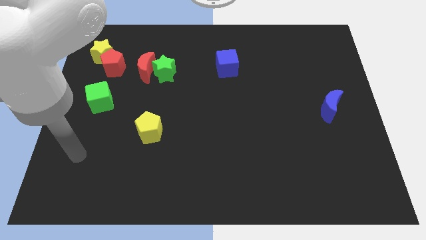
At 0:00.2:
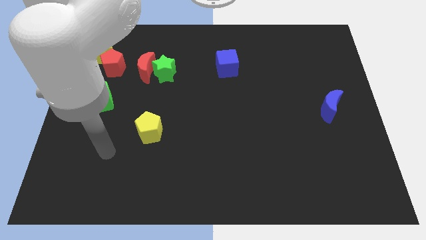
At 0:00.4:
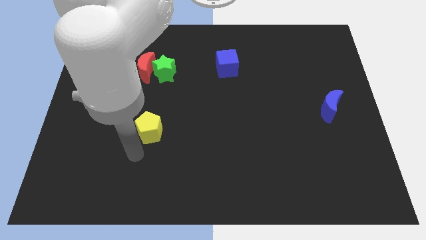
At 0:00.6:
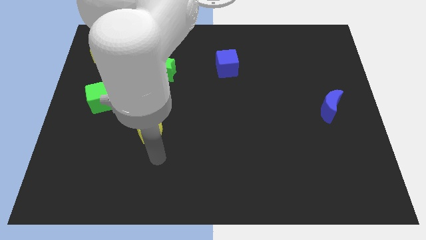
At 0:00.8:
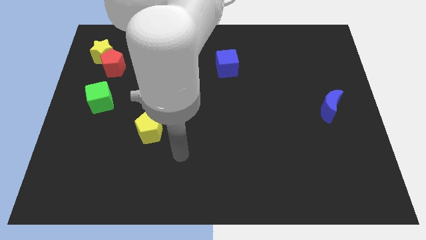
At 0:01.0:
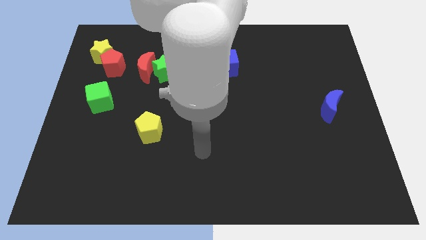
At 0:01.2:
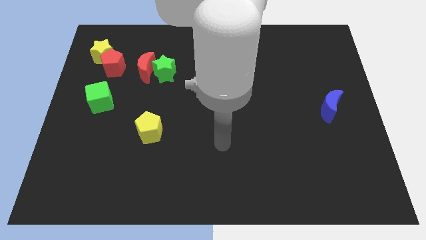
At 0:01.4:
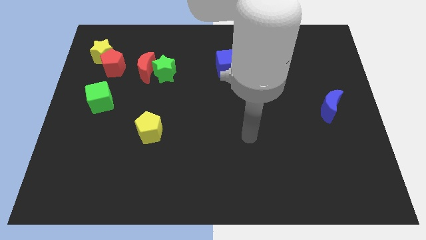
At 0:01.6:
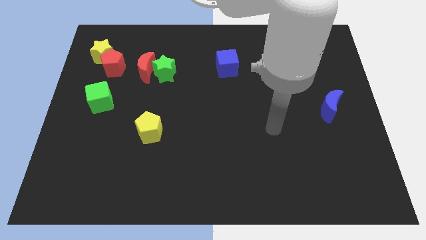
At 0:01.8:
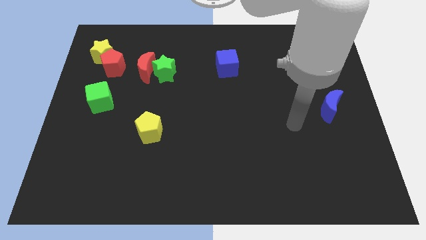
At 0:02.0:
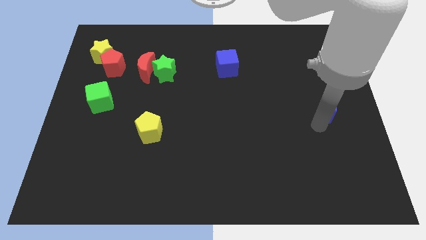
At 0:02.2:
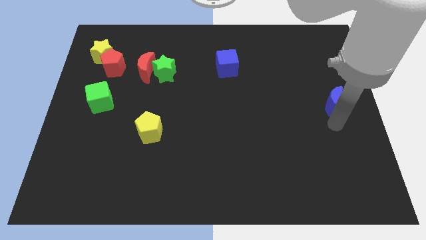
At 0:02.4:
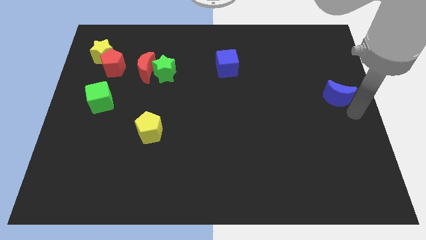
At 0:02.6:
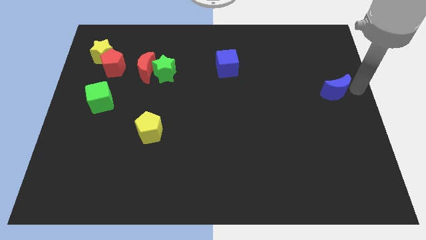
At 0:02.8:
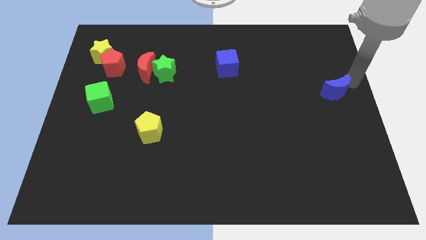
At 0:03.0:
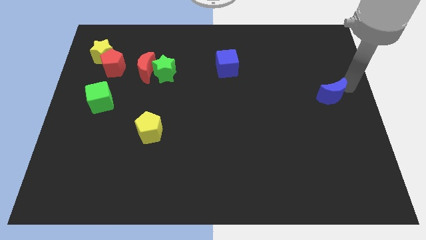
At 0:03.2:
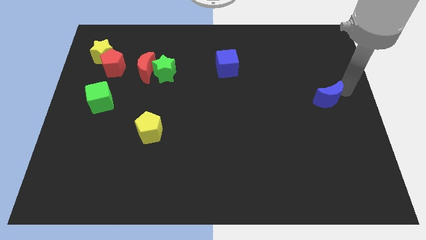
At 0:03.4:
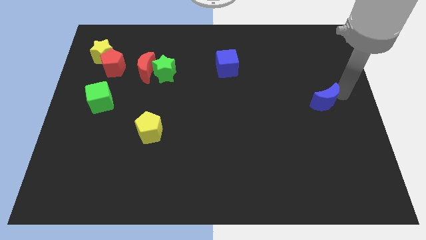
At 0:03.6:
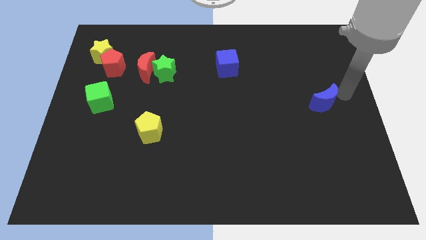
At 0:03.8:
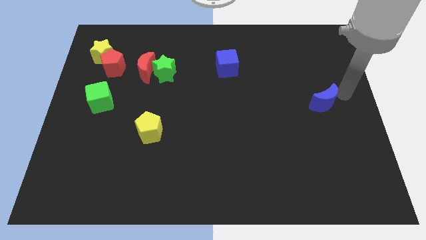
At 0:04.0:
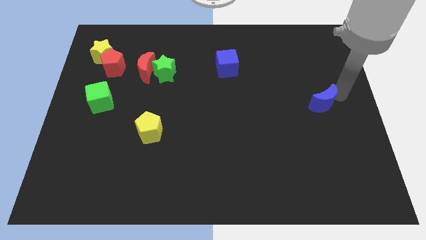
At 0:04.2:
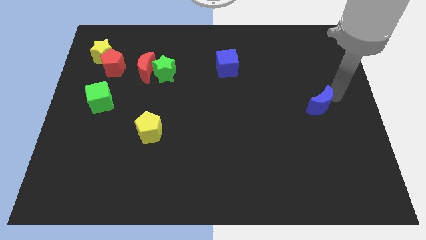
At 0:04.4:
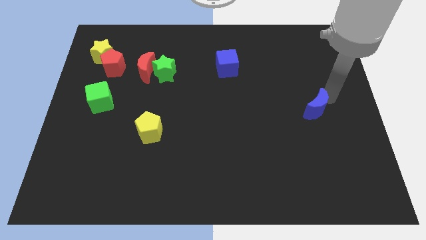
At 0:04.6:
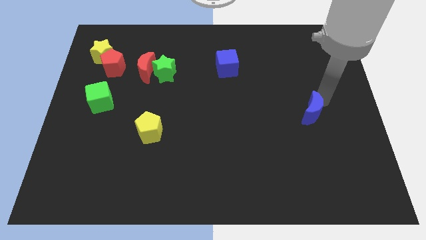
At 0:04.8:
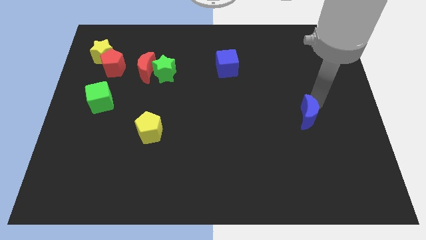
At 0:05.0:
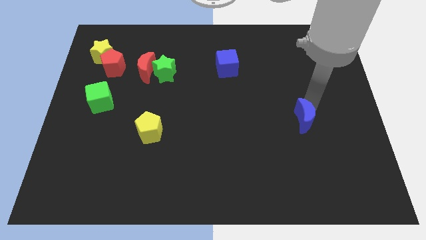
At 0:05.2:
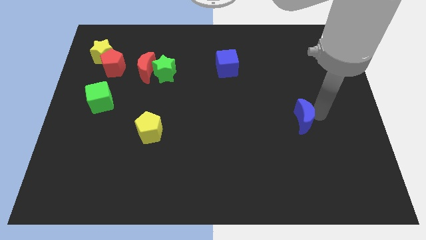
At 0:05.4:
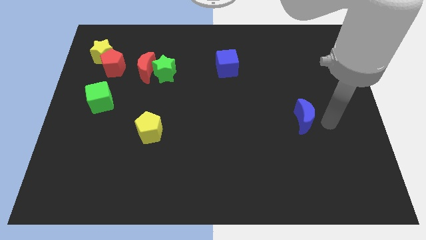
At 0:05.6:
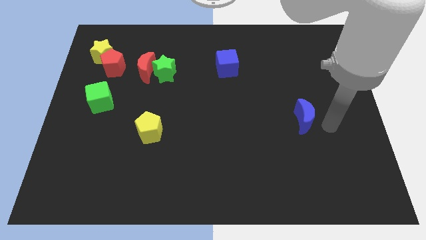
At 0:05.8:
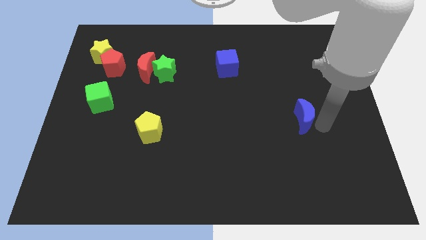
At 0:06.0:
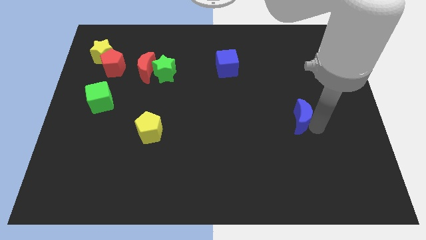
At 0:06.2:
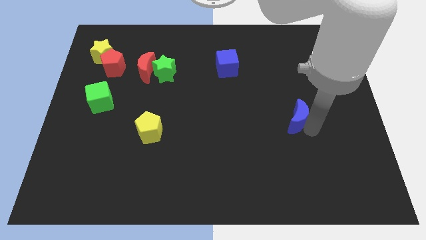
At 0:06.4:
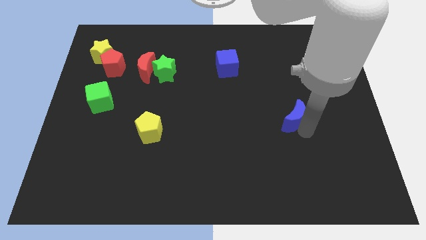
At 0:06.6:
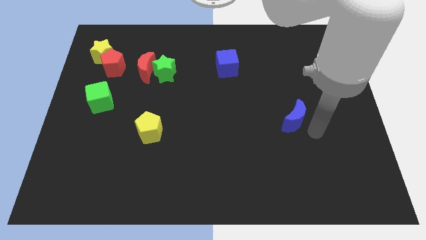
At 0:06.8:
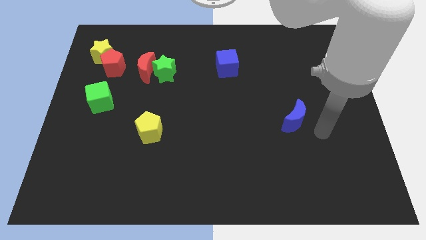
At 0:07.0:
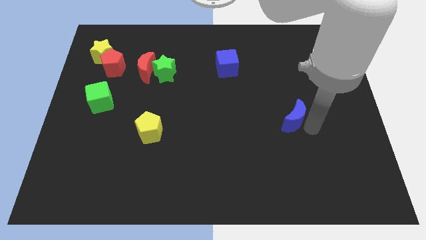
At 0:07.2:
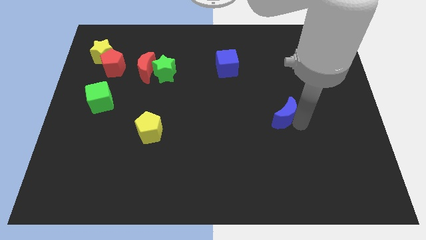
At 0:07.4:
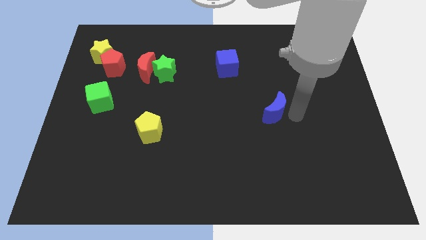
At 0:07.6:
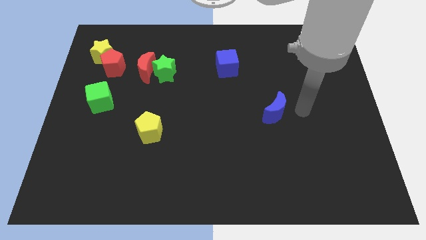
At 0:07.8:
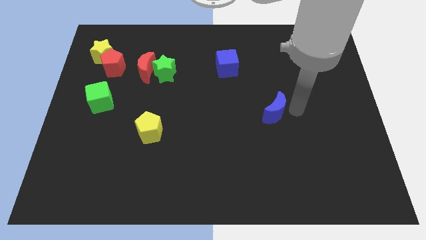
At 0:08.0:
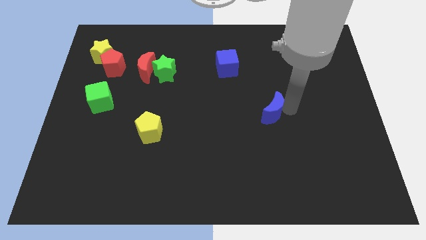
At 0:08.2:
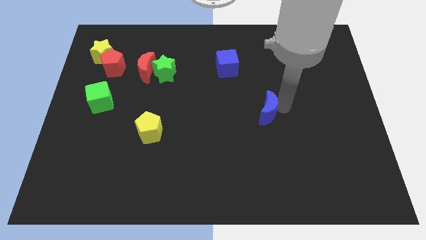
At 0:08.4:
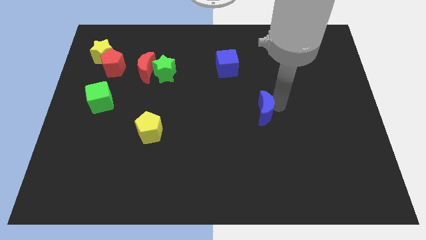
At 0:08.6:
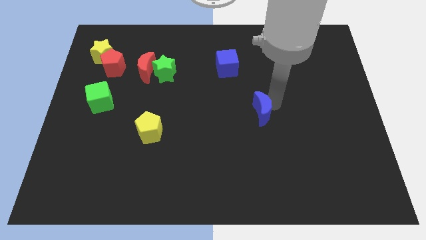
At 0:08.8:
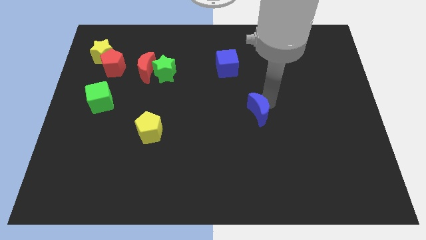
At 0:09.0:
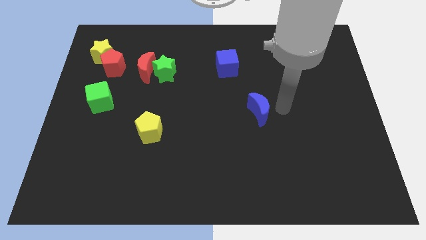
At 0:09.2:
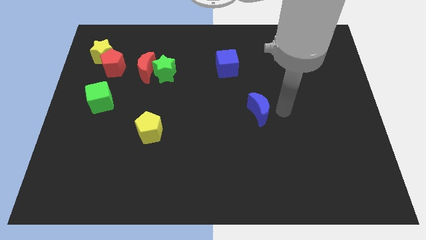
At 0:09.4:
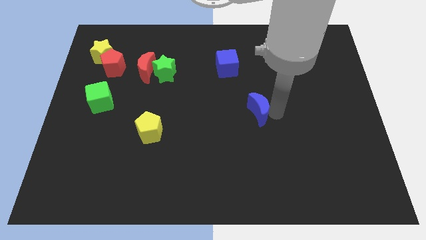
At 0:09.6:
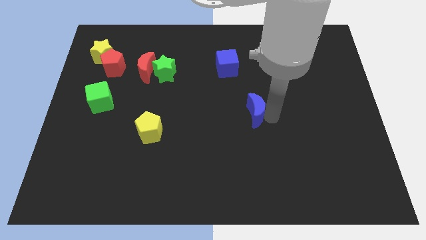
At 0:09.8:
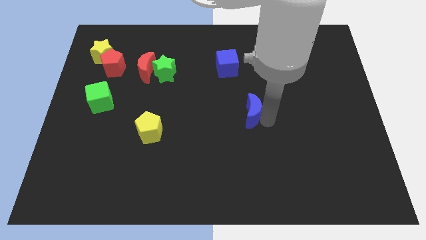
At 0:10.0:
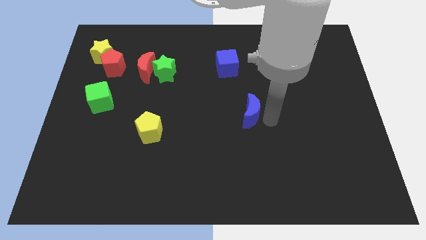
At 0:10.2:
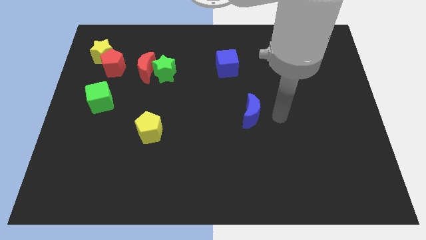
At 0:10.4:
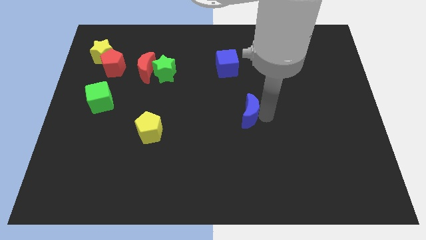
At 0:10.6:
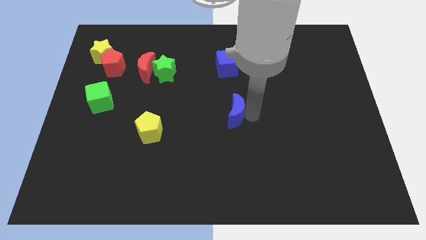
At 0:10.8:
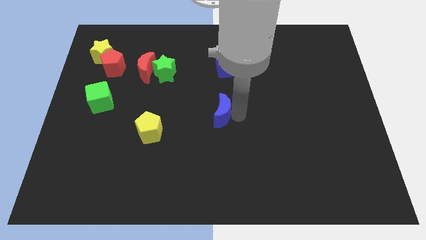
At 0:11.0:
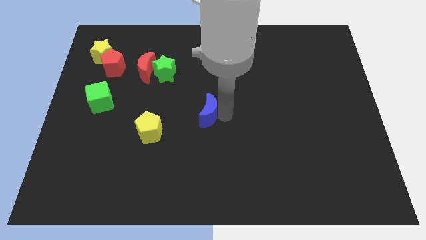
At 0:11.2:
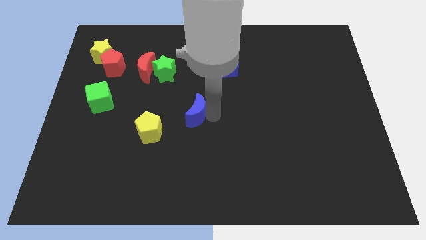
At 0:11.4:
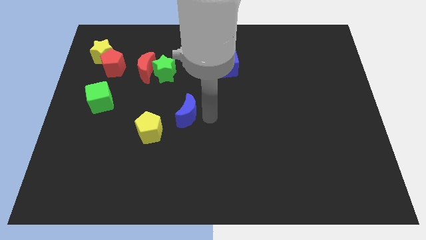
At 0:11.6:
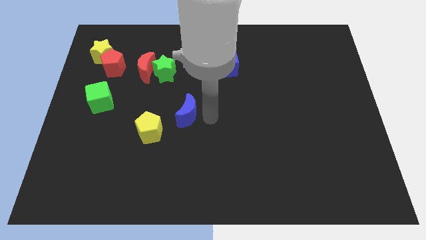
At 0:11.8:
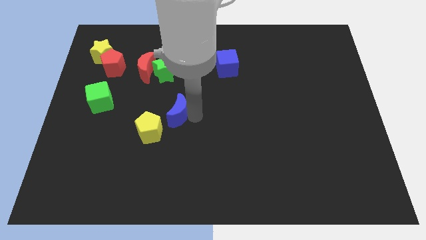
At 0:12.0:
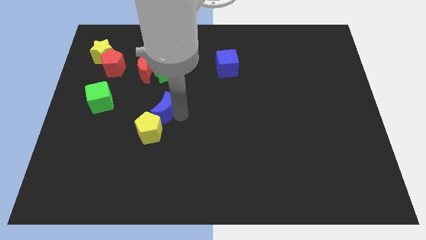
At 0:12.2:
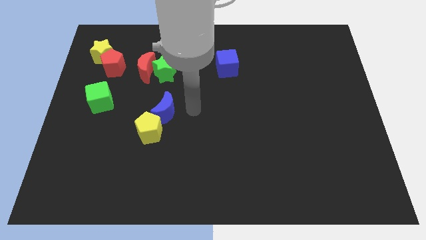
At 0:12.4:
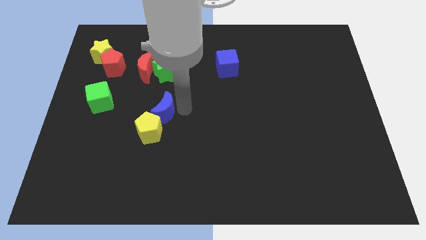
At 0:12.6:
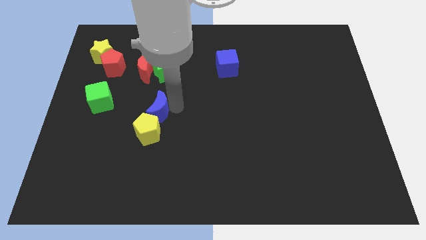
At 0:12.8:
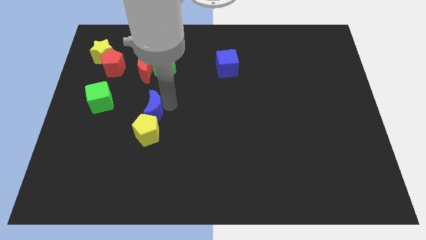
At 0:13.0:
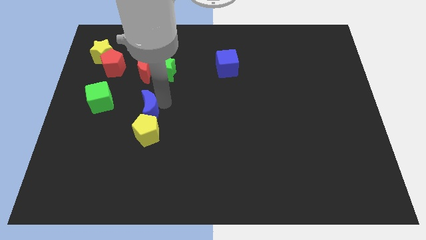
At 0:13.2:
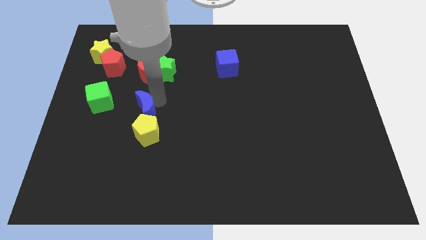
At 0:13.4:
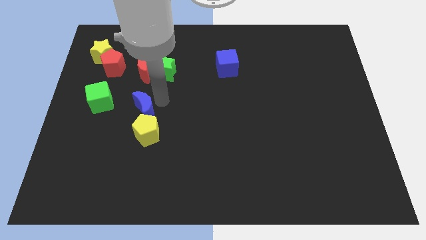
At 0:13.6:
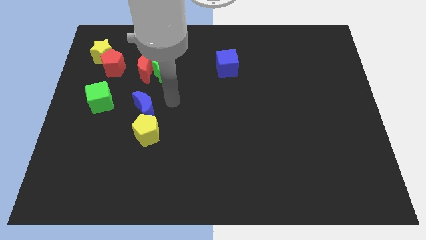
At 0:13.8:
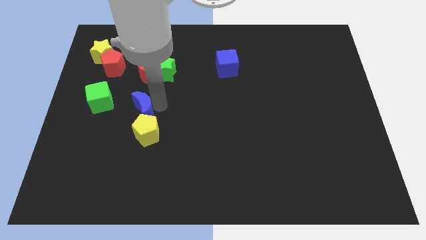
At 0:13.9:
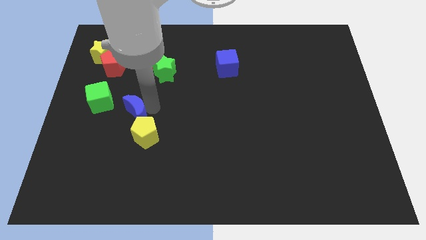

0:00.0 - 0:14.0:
push the blue moon to the bottom right of the green cube

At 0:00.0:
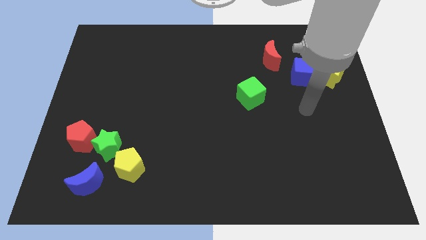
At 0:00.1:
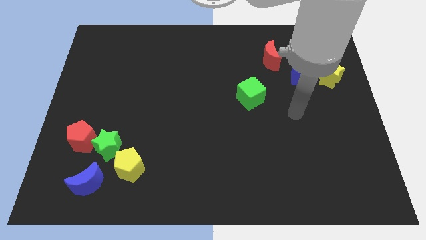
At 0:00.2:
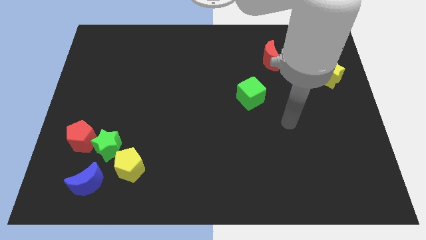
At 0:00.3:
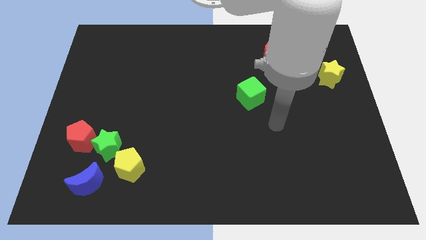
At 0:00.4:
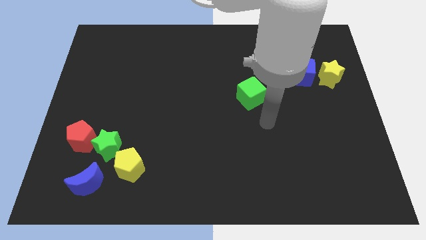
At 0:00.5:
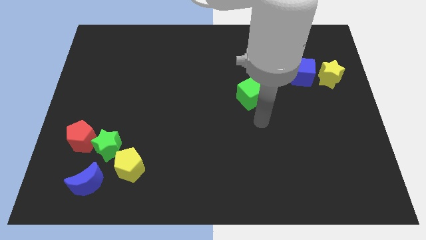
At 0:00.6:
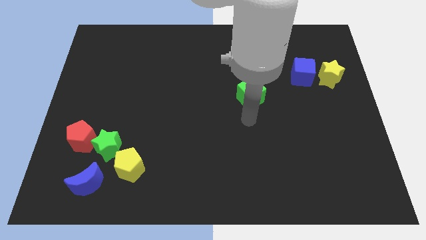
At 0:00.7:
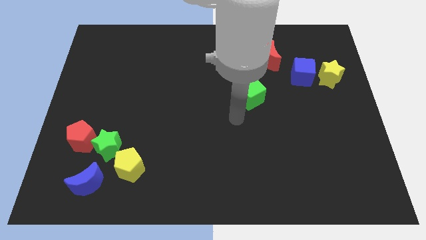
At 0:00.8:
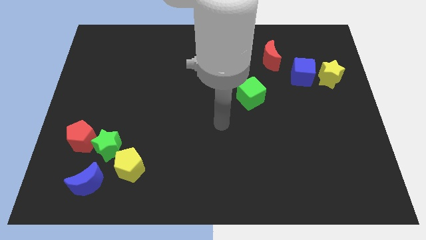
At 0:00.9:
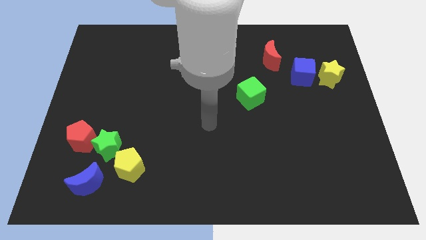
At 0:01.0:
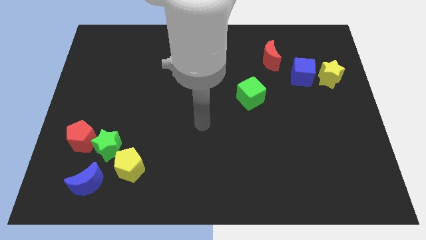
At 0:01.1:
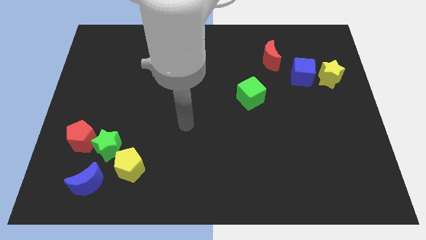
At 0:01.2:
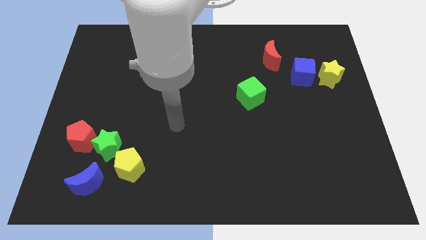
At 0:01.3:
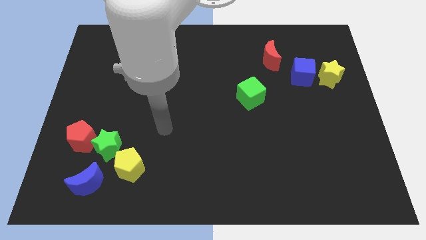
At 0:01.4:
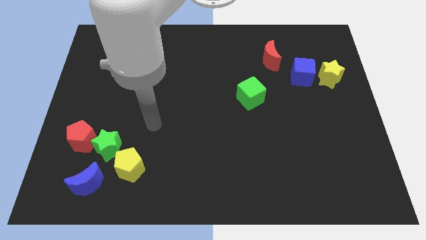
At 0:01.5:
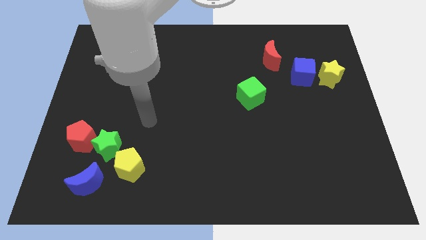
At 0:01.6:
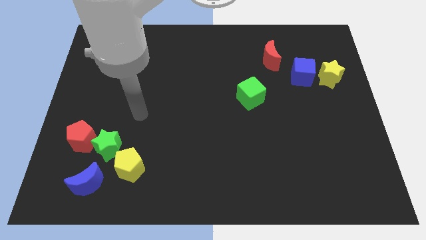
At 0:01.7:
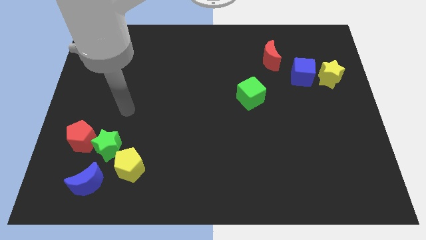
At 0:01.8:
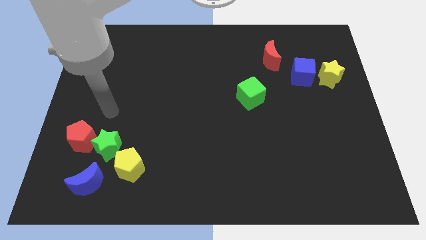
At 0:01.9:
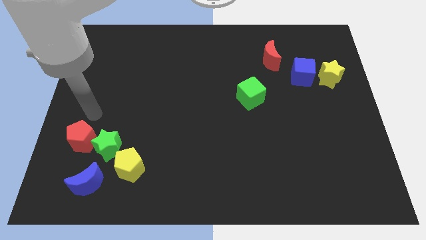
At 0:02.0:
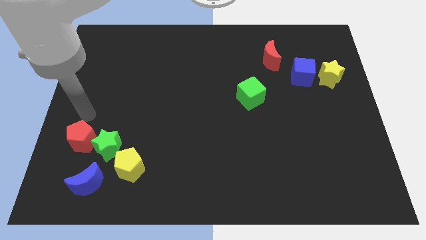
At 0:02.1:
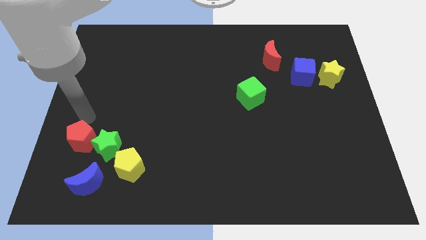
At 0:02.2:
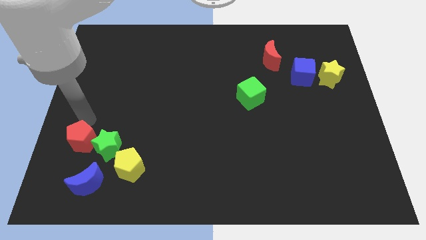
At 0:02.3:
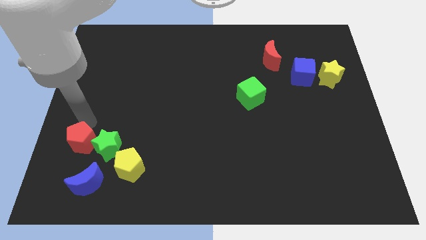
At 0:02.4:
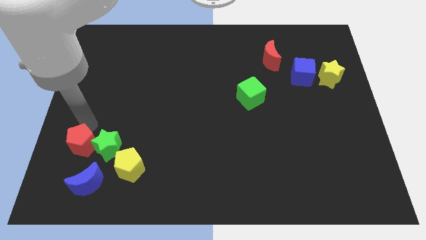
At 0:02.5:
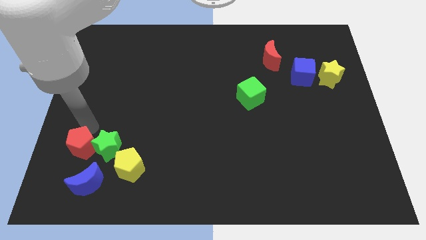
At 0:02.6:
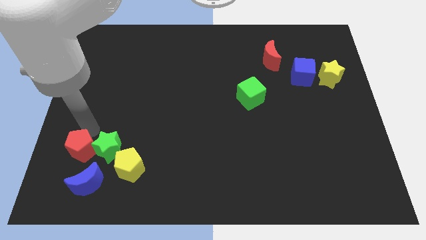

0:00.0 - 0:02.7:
slide the red pentagon just left of the yellow pentagon
